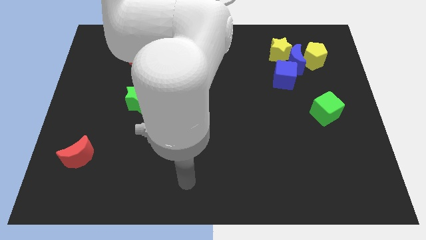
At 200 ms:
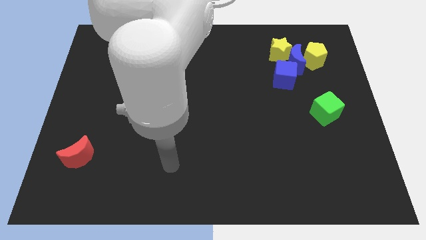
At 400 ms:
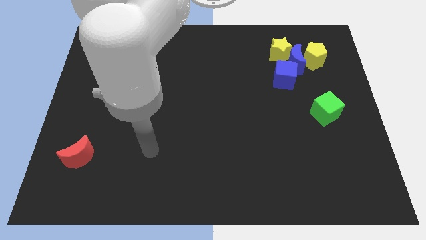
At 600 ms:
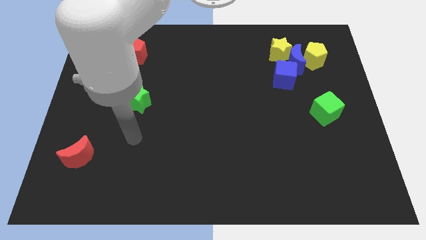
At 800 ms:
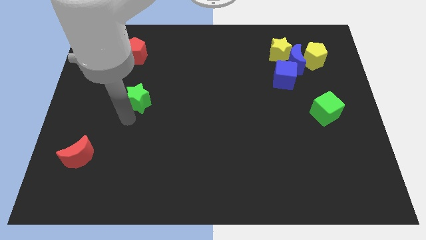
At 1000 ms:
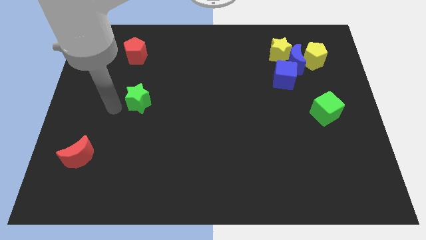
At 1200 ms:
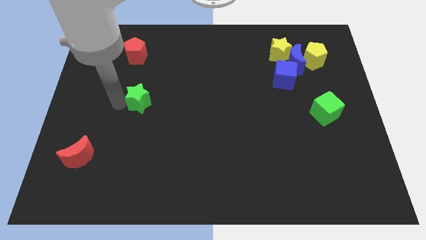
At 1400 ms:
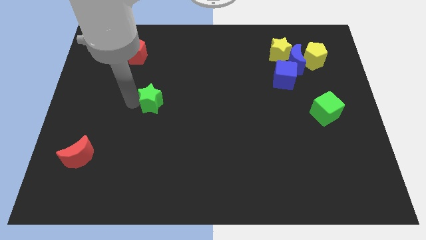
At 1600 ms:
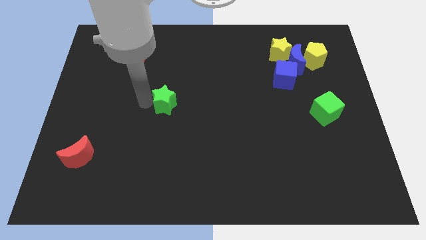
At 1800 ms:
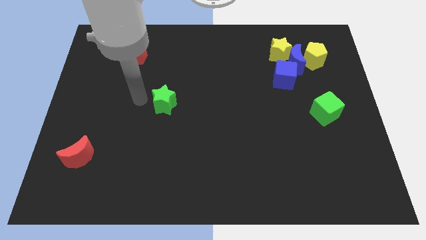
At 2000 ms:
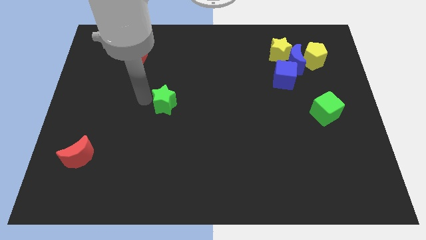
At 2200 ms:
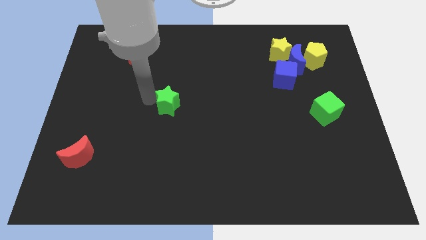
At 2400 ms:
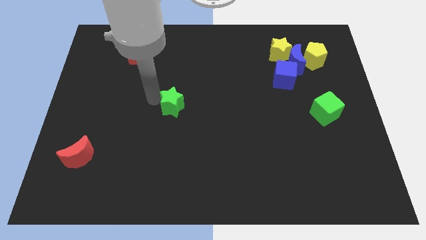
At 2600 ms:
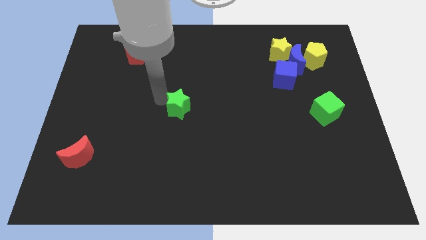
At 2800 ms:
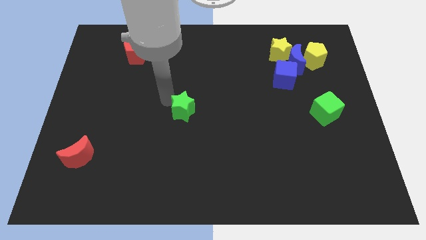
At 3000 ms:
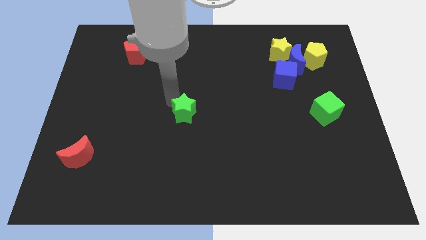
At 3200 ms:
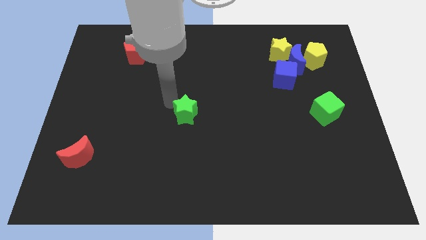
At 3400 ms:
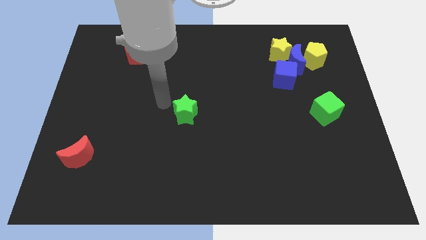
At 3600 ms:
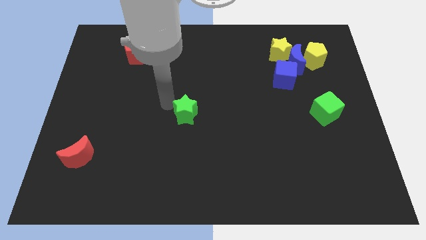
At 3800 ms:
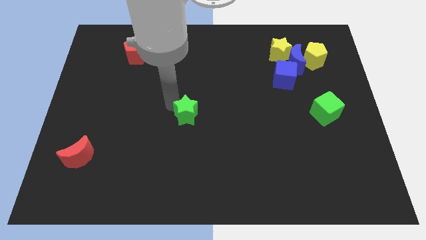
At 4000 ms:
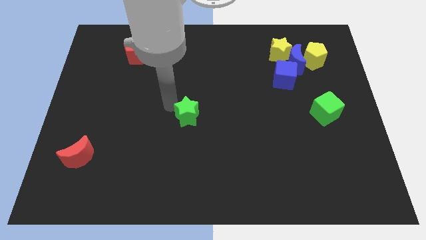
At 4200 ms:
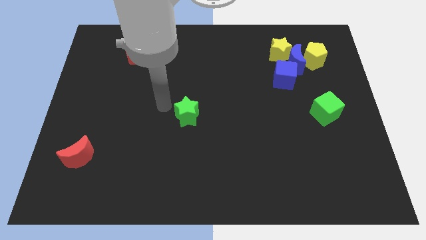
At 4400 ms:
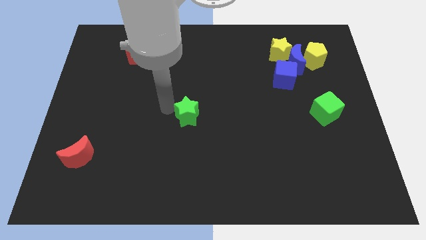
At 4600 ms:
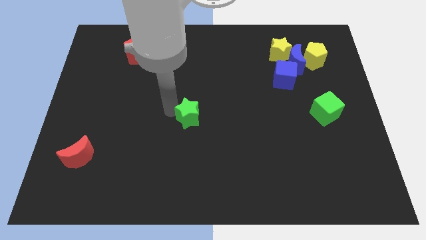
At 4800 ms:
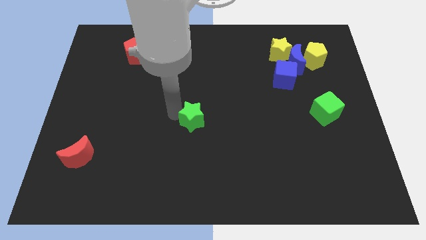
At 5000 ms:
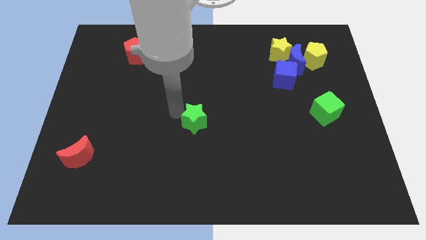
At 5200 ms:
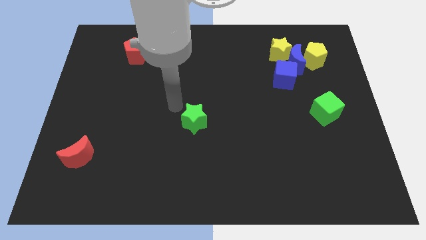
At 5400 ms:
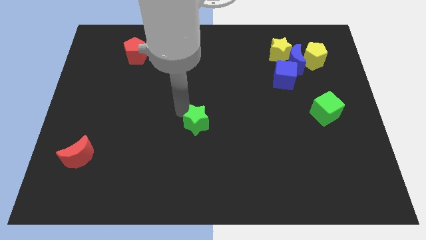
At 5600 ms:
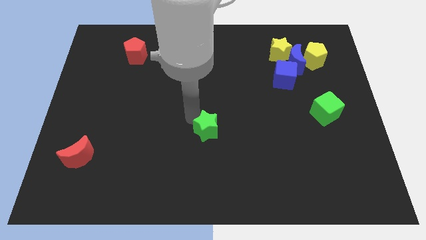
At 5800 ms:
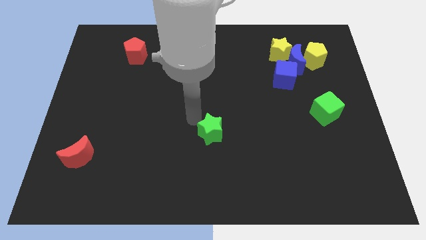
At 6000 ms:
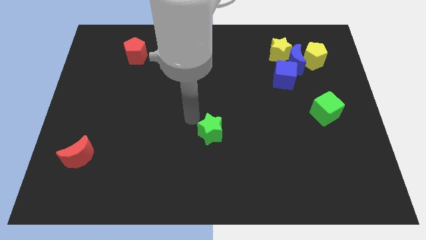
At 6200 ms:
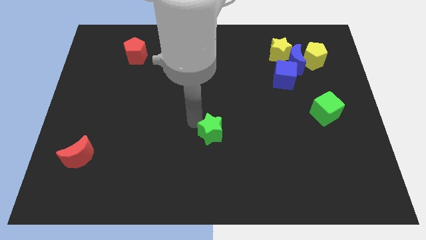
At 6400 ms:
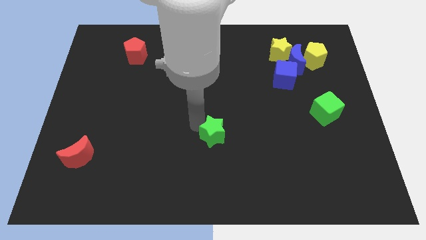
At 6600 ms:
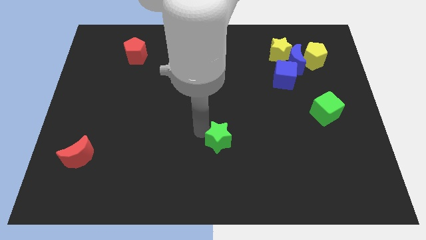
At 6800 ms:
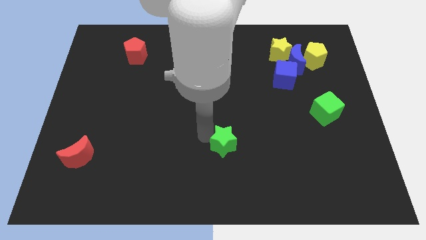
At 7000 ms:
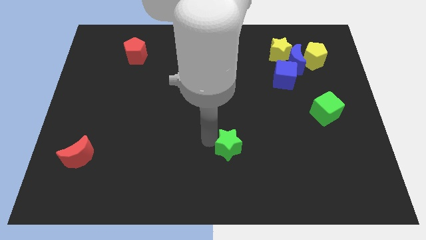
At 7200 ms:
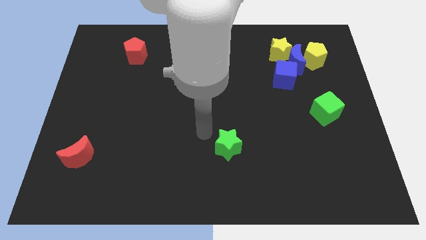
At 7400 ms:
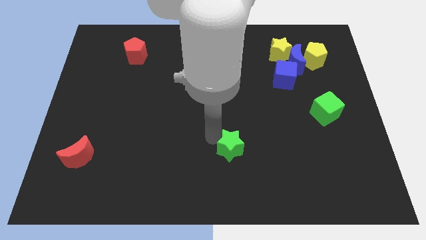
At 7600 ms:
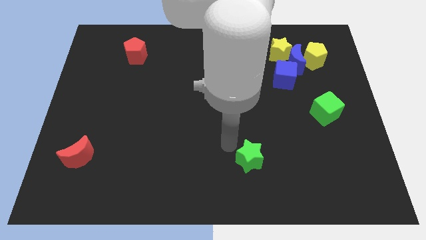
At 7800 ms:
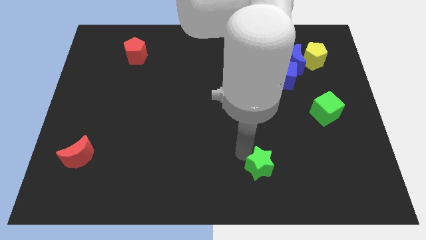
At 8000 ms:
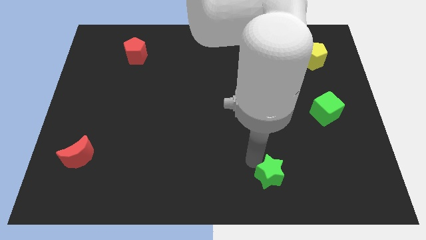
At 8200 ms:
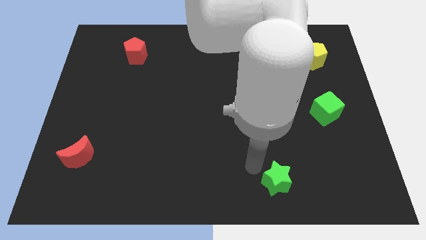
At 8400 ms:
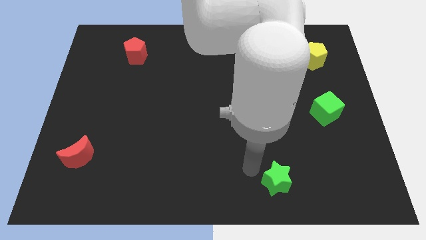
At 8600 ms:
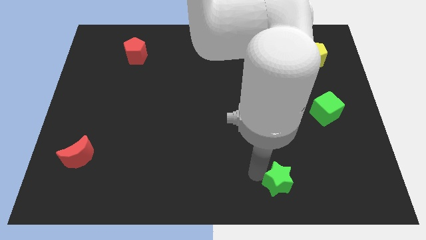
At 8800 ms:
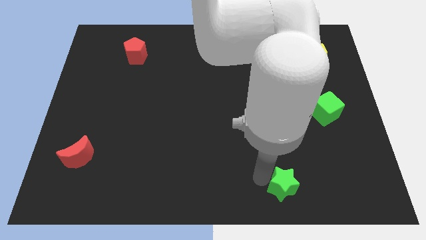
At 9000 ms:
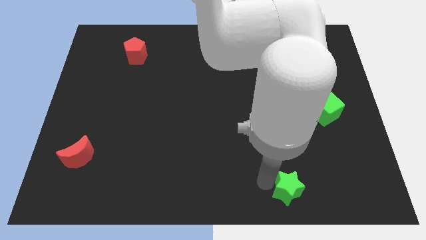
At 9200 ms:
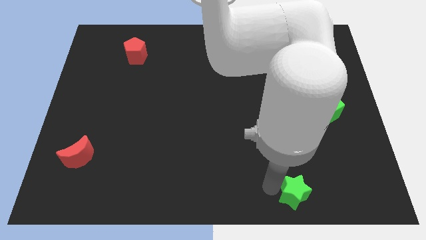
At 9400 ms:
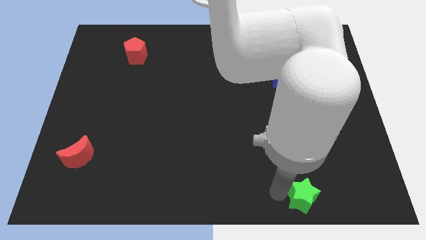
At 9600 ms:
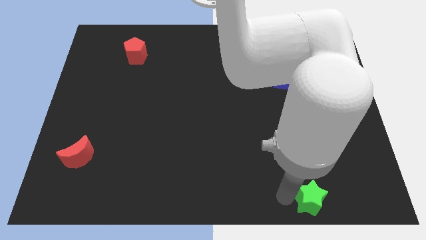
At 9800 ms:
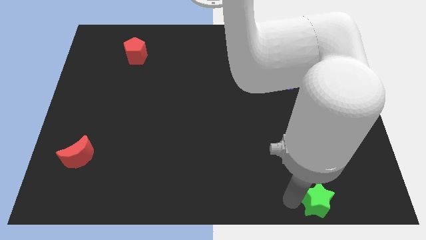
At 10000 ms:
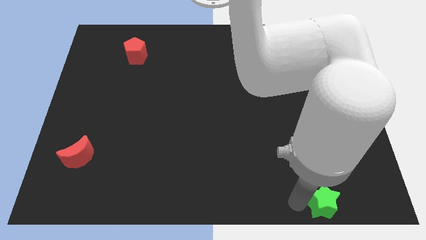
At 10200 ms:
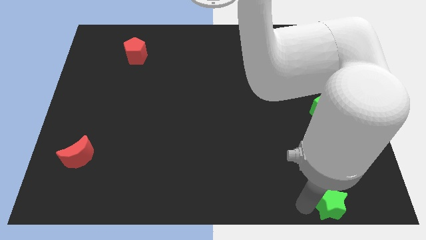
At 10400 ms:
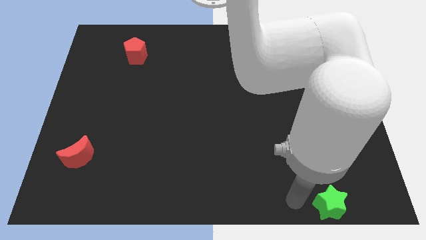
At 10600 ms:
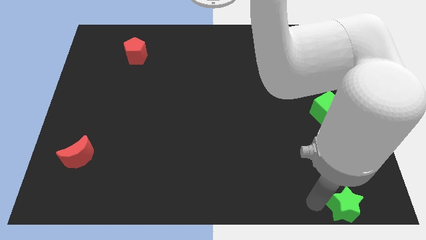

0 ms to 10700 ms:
slide the green star to the lower right corner

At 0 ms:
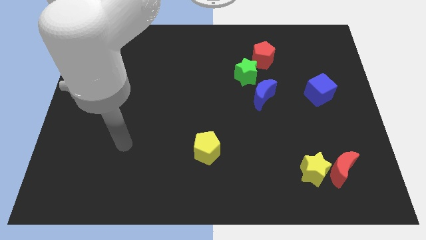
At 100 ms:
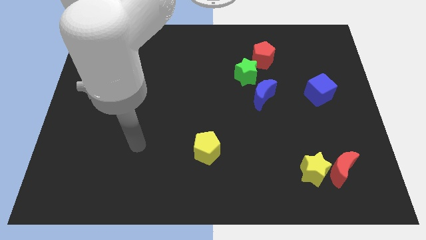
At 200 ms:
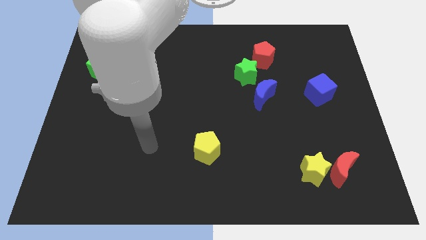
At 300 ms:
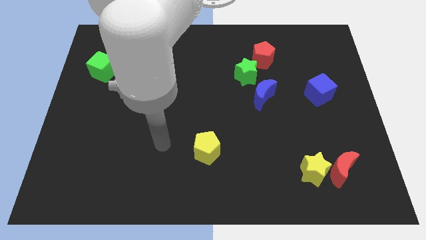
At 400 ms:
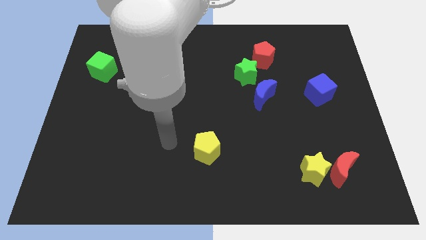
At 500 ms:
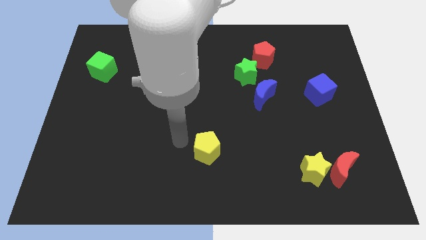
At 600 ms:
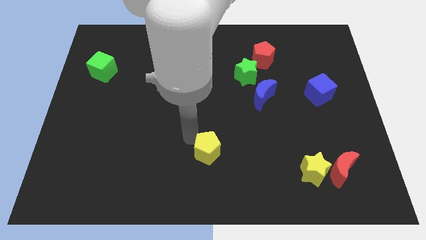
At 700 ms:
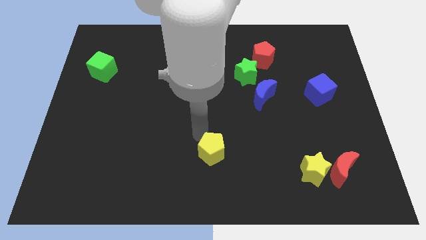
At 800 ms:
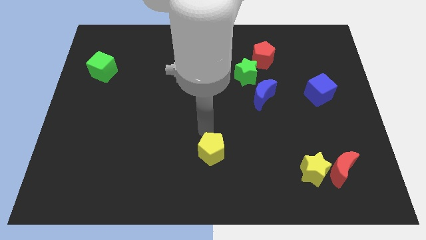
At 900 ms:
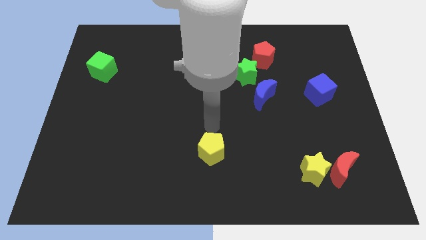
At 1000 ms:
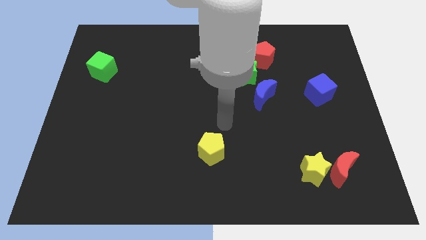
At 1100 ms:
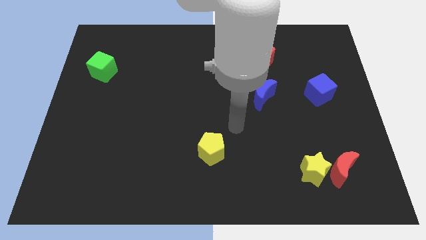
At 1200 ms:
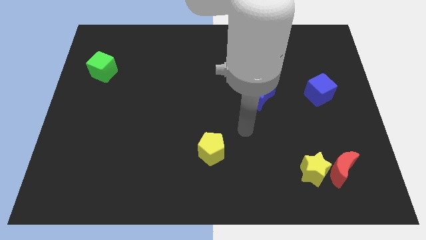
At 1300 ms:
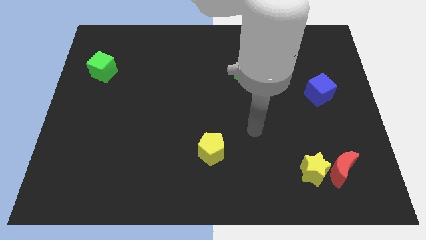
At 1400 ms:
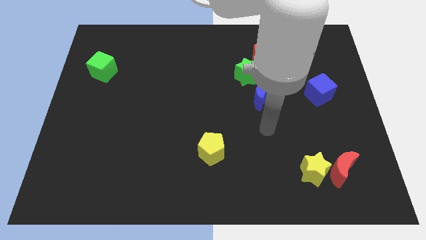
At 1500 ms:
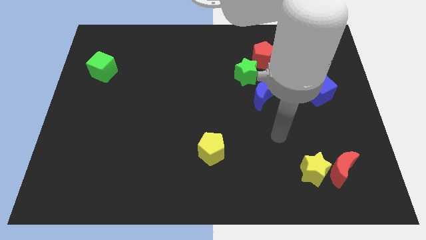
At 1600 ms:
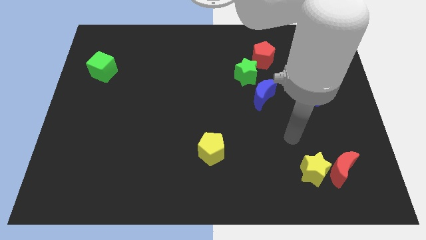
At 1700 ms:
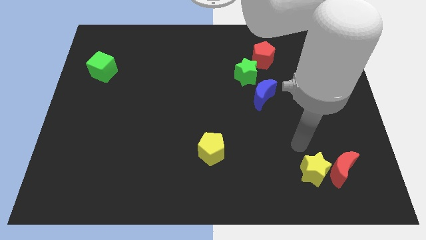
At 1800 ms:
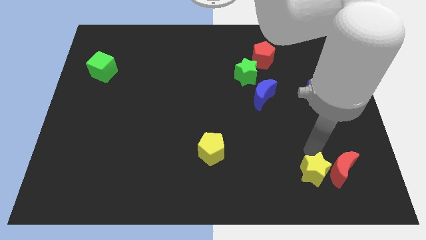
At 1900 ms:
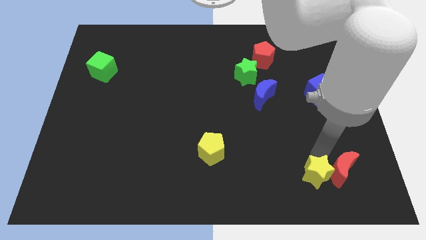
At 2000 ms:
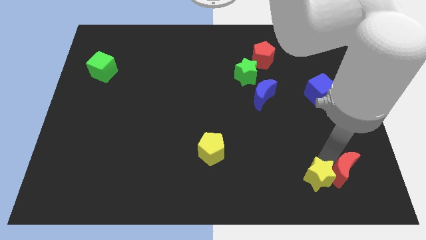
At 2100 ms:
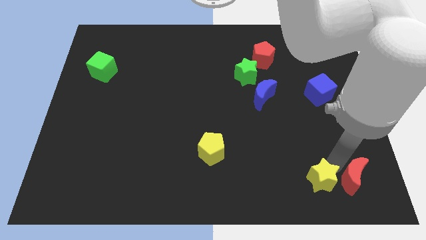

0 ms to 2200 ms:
put the red moon to the bottom right corner
